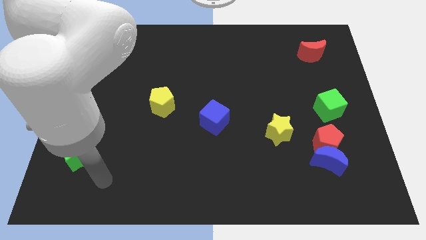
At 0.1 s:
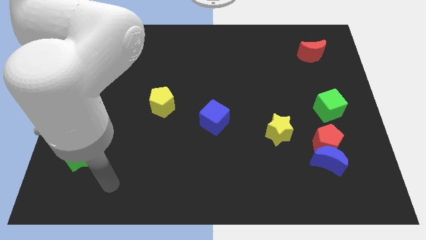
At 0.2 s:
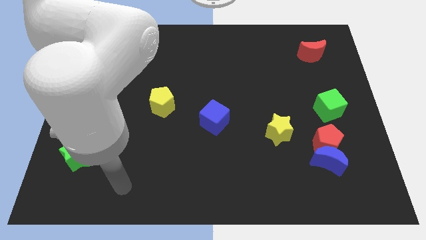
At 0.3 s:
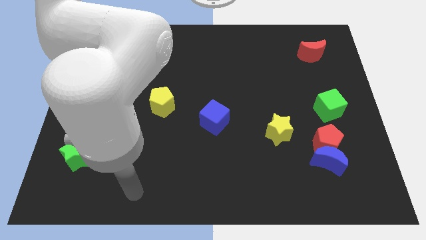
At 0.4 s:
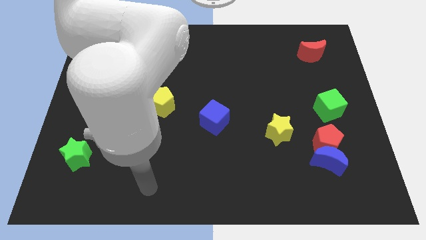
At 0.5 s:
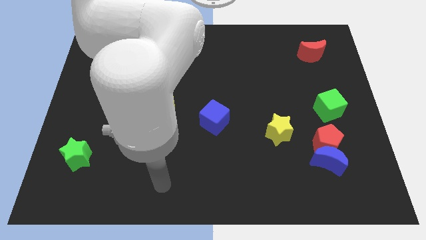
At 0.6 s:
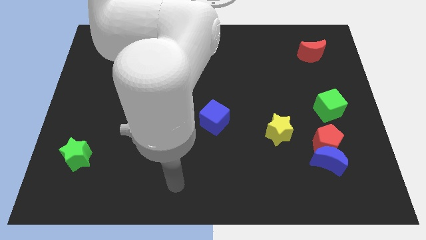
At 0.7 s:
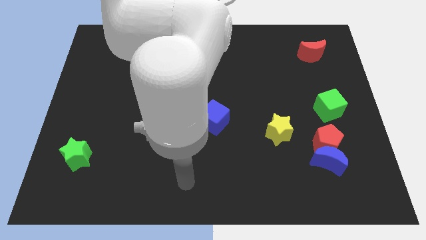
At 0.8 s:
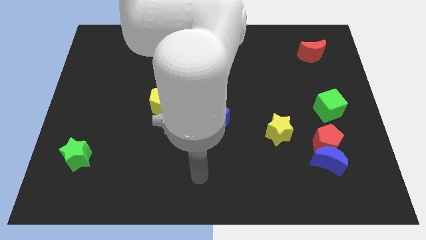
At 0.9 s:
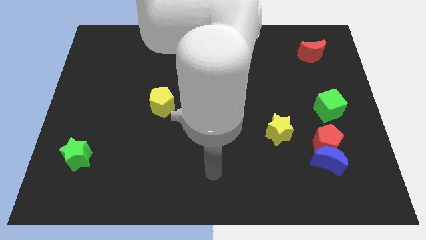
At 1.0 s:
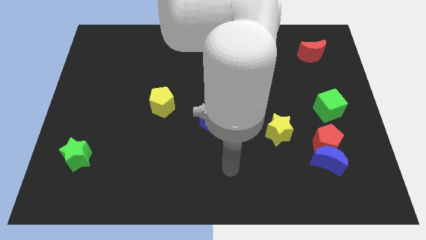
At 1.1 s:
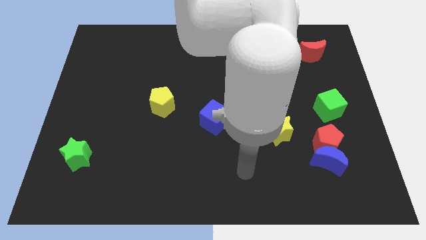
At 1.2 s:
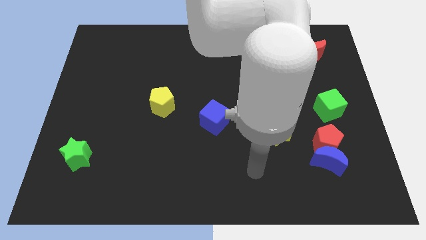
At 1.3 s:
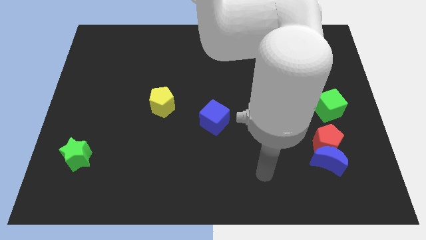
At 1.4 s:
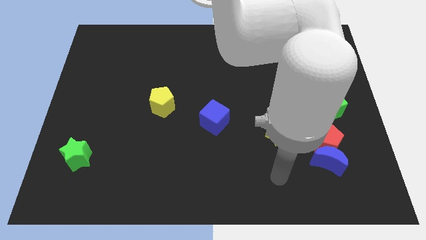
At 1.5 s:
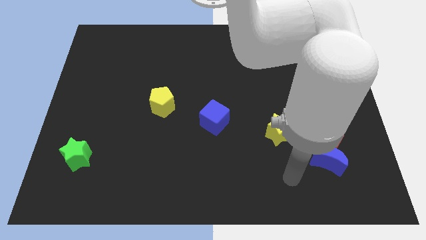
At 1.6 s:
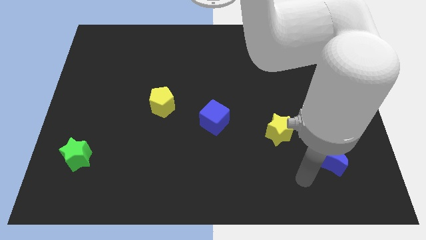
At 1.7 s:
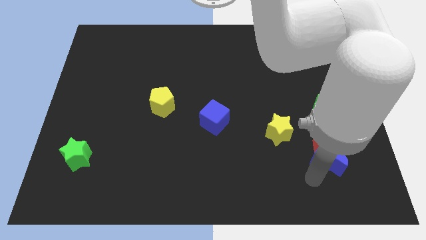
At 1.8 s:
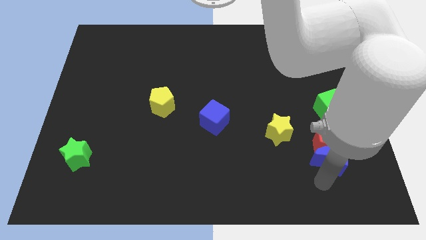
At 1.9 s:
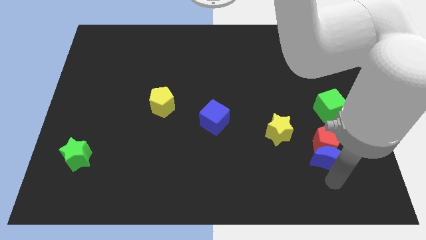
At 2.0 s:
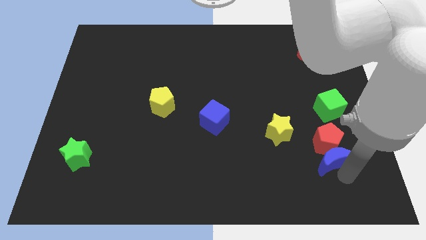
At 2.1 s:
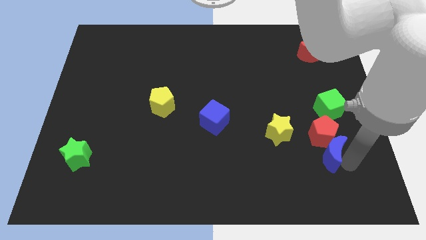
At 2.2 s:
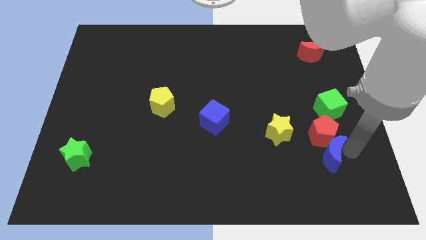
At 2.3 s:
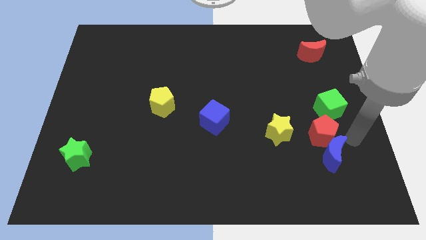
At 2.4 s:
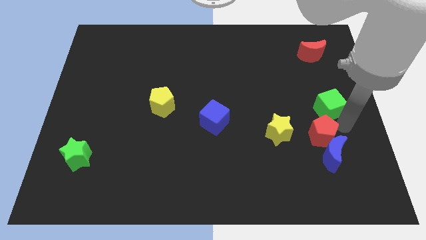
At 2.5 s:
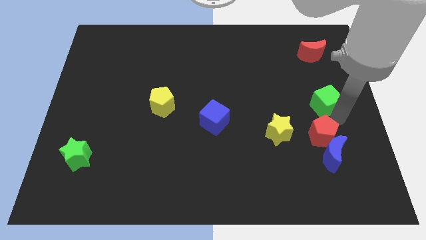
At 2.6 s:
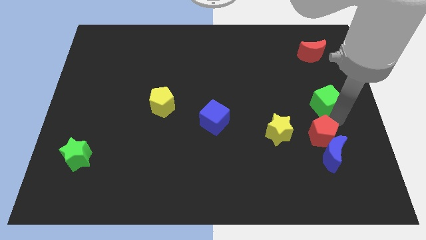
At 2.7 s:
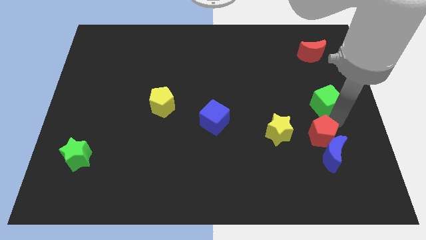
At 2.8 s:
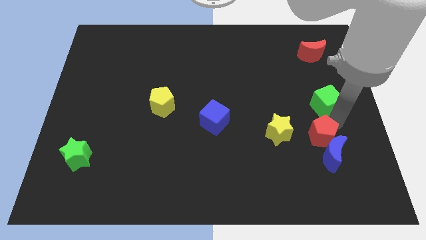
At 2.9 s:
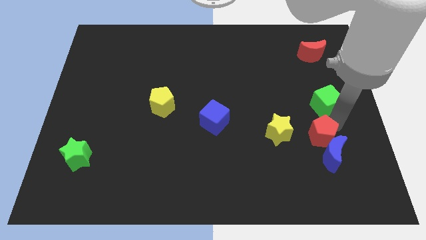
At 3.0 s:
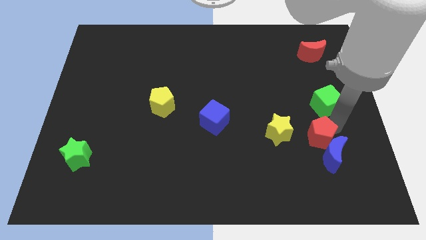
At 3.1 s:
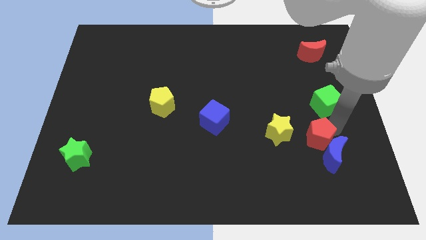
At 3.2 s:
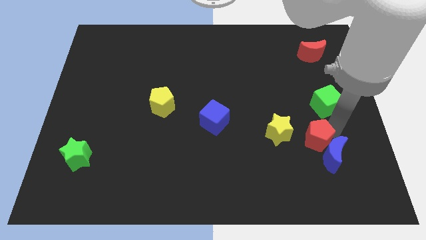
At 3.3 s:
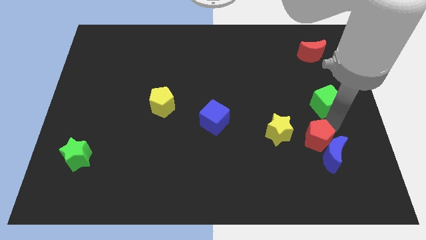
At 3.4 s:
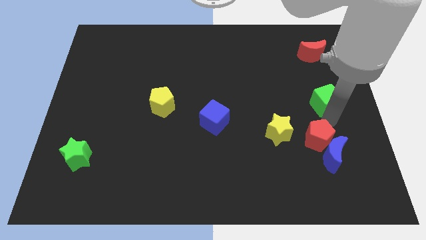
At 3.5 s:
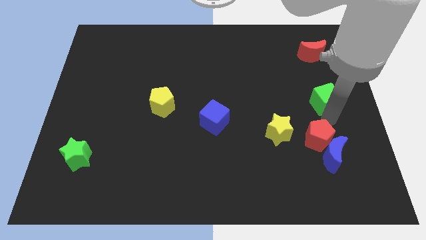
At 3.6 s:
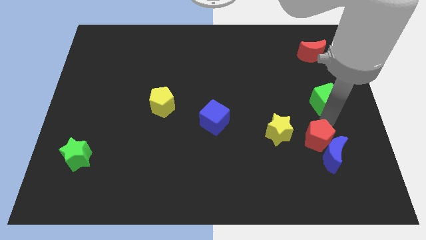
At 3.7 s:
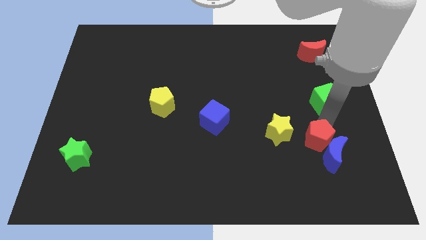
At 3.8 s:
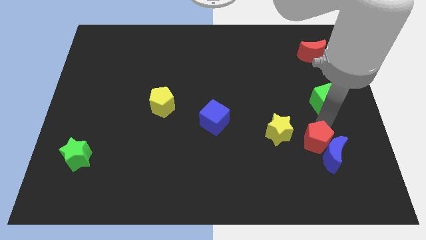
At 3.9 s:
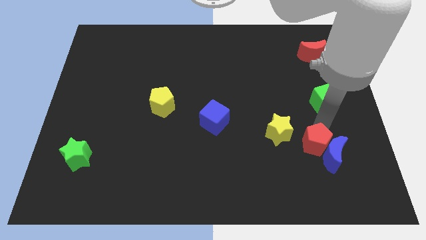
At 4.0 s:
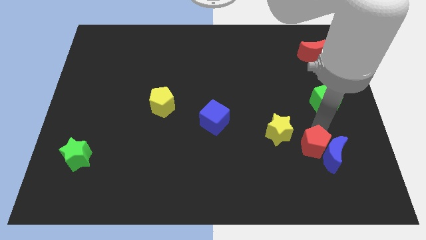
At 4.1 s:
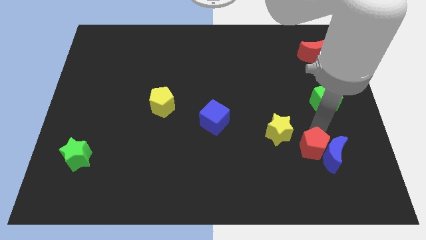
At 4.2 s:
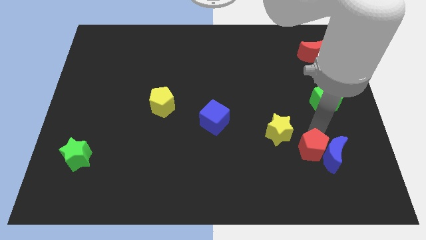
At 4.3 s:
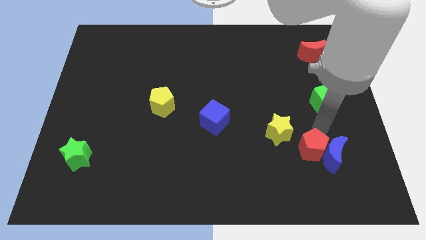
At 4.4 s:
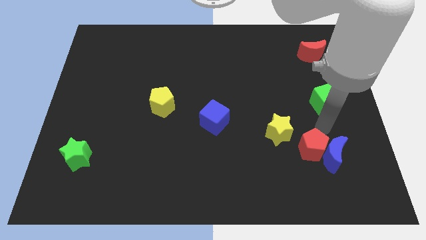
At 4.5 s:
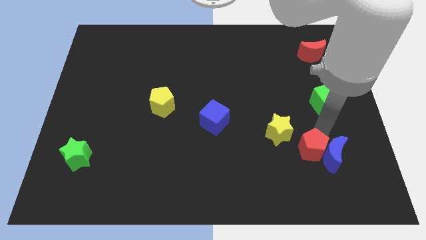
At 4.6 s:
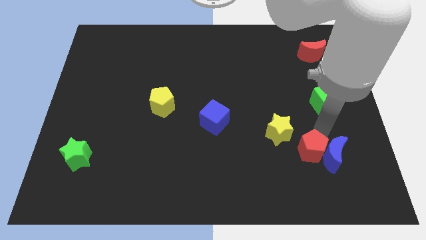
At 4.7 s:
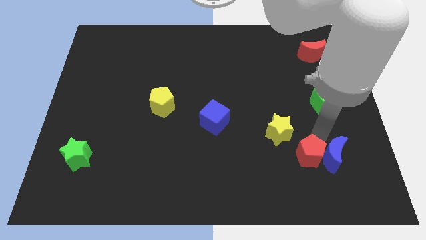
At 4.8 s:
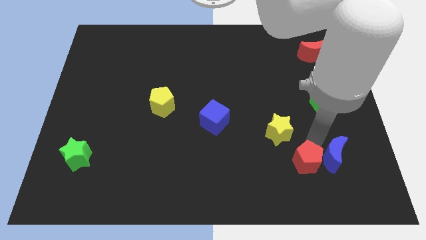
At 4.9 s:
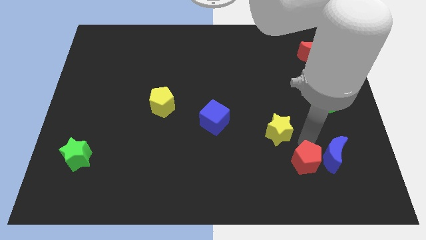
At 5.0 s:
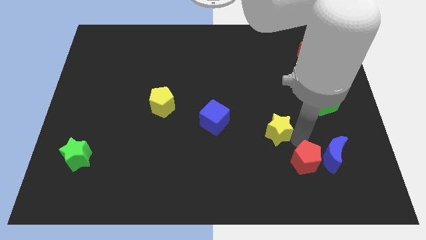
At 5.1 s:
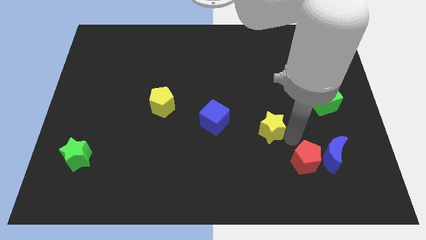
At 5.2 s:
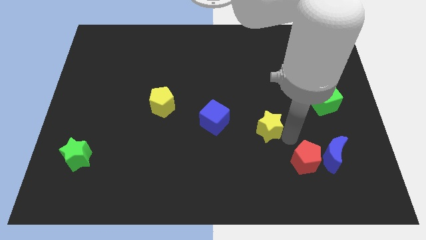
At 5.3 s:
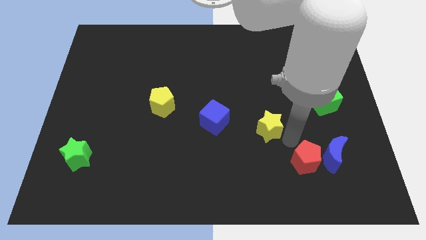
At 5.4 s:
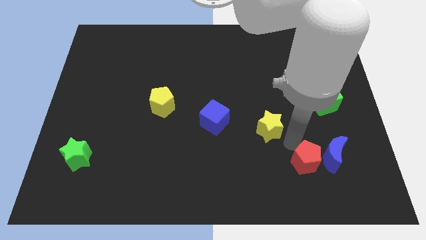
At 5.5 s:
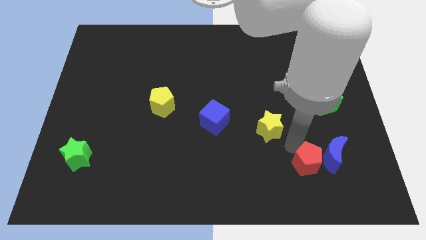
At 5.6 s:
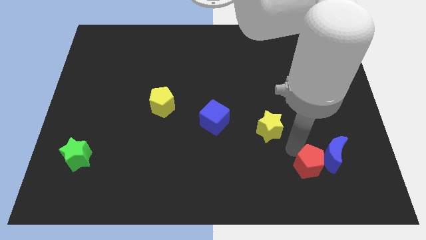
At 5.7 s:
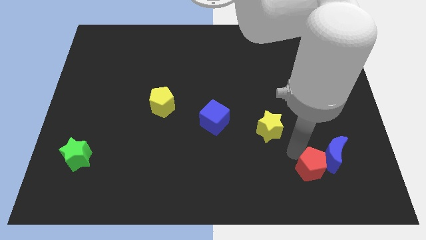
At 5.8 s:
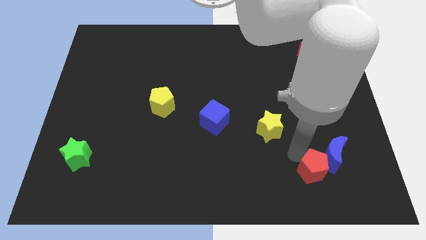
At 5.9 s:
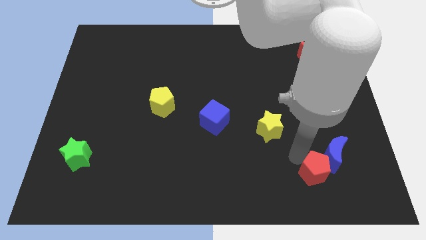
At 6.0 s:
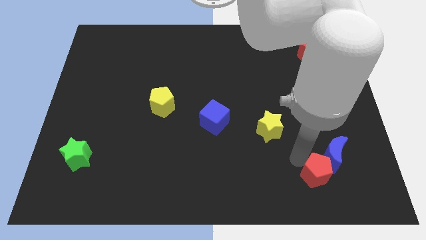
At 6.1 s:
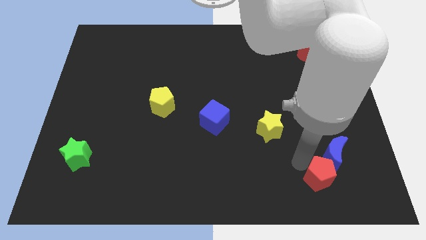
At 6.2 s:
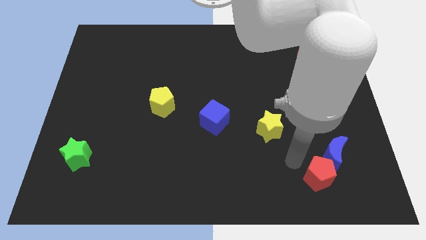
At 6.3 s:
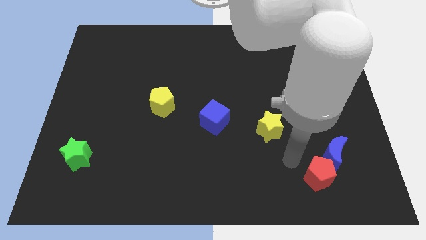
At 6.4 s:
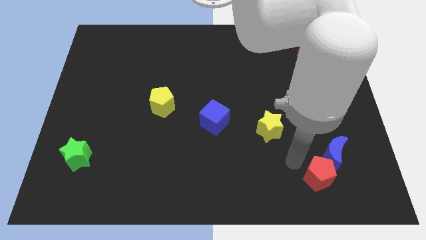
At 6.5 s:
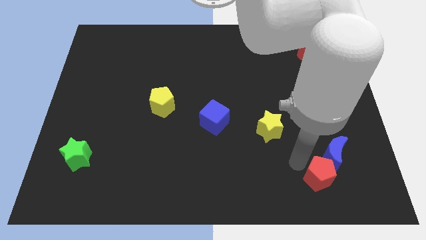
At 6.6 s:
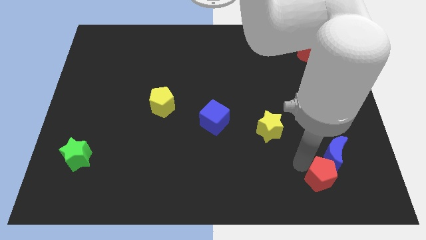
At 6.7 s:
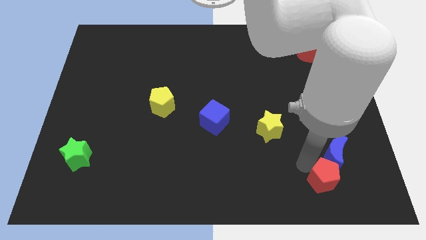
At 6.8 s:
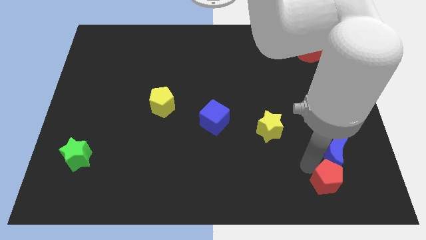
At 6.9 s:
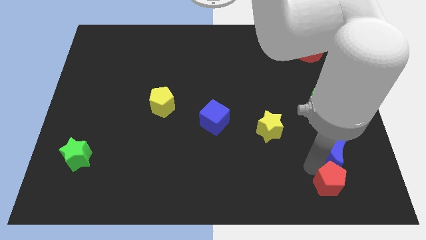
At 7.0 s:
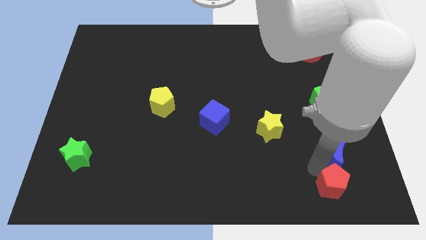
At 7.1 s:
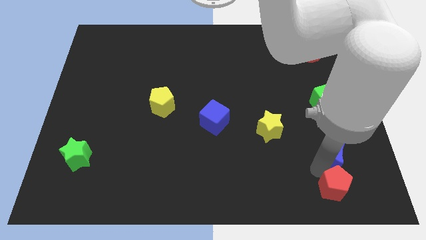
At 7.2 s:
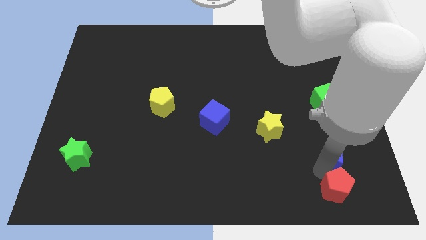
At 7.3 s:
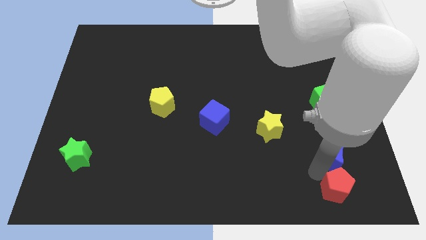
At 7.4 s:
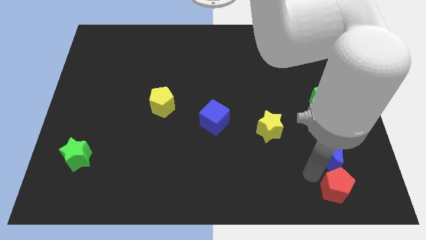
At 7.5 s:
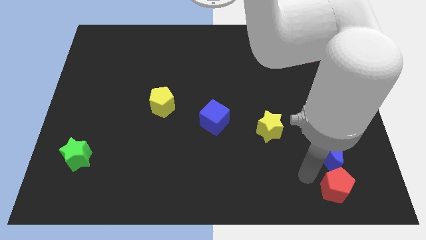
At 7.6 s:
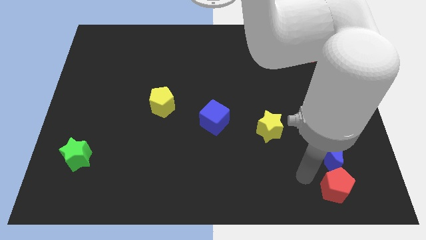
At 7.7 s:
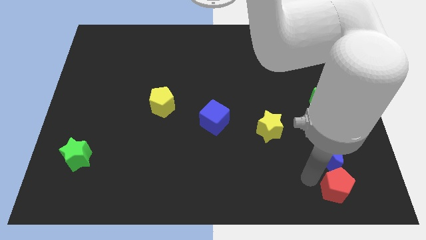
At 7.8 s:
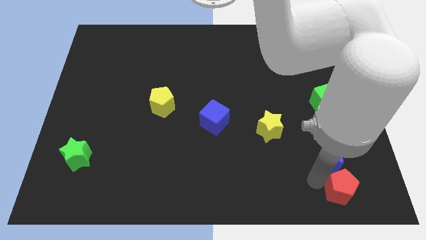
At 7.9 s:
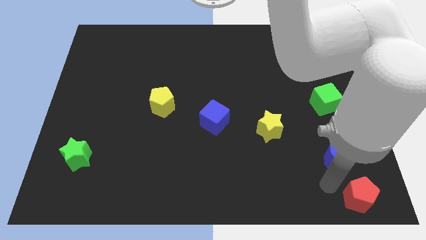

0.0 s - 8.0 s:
put the red pentagon to the bottom right corner
